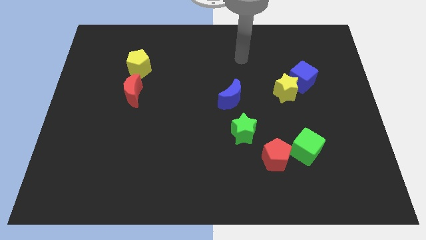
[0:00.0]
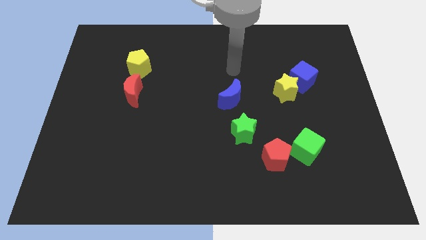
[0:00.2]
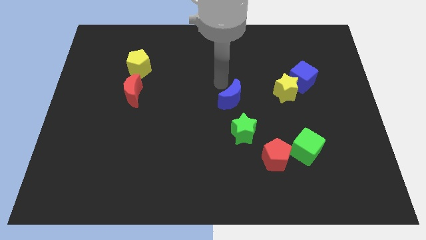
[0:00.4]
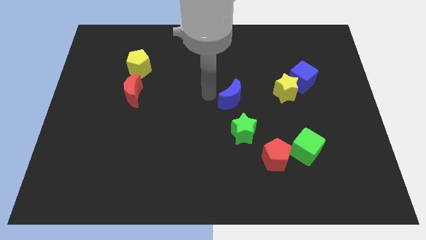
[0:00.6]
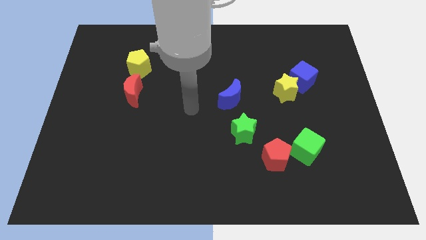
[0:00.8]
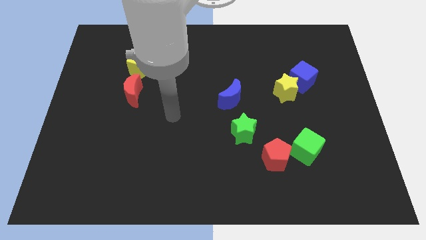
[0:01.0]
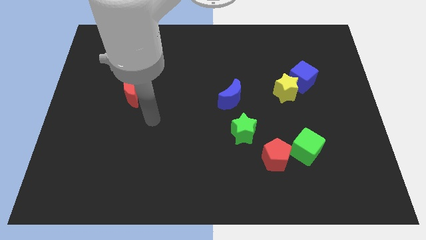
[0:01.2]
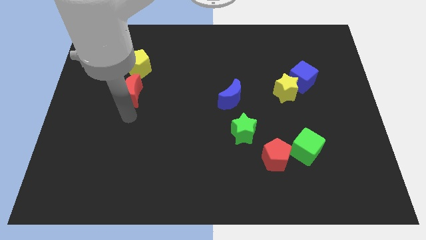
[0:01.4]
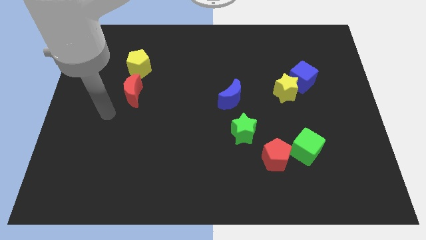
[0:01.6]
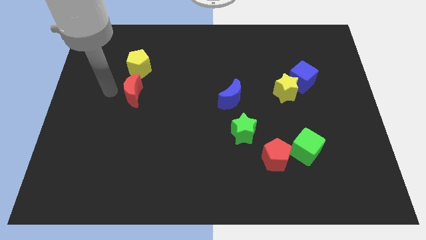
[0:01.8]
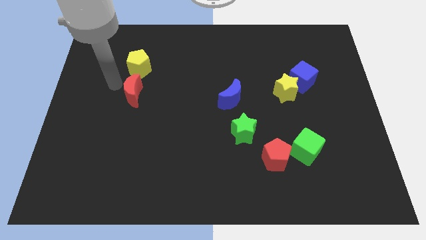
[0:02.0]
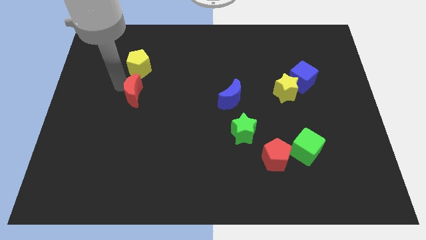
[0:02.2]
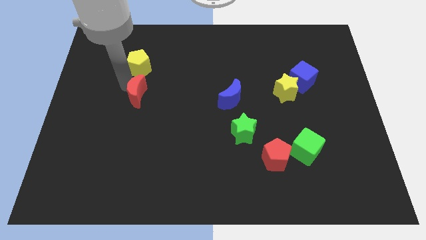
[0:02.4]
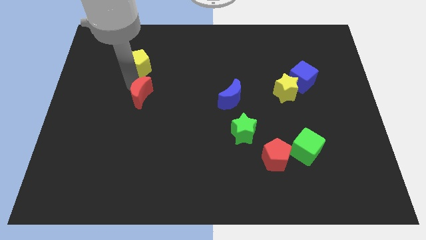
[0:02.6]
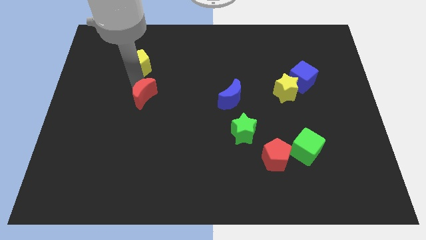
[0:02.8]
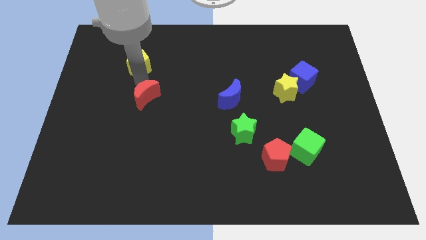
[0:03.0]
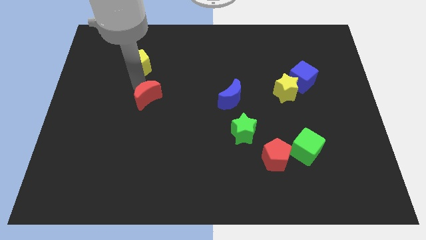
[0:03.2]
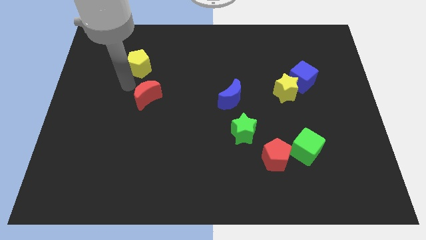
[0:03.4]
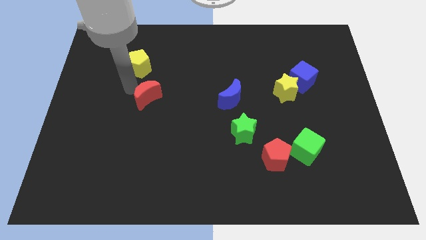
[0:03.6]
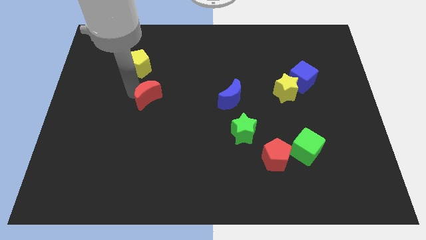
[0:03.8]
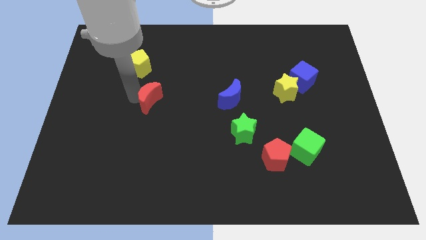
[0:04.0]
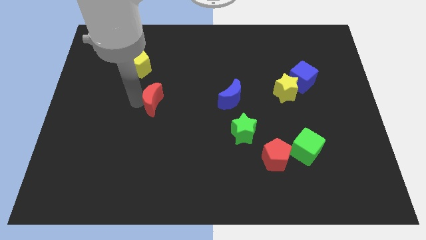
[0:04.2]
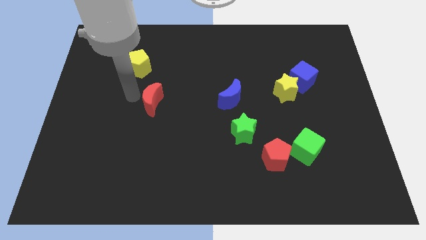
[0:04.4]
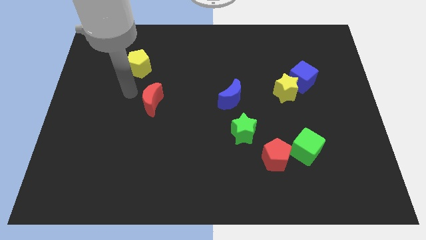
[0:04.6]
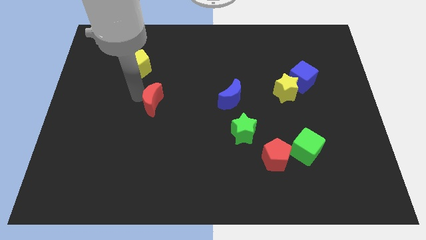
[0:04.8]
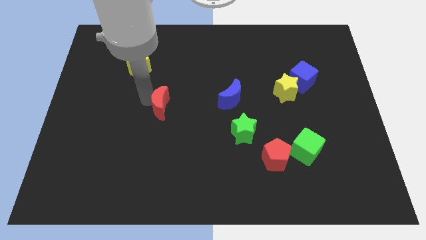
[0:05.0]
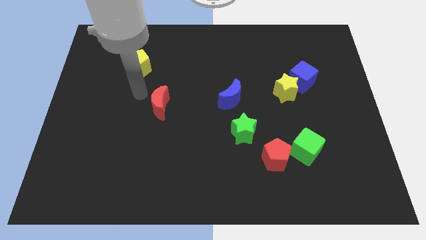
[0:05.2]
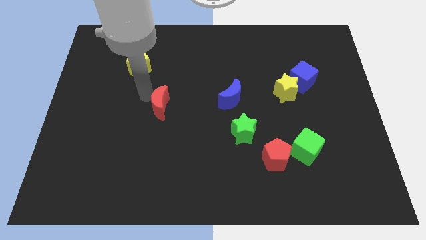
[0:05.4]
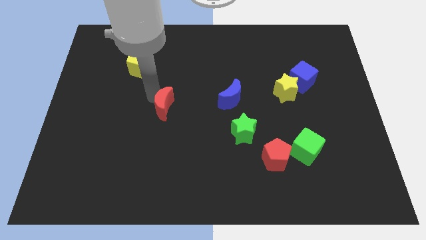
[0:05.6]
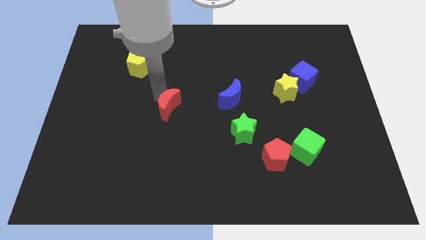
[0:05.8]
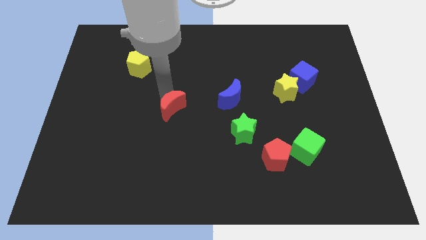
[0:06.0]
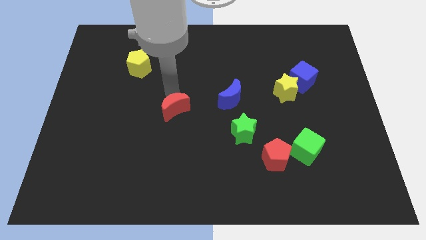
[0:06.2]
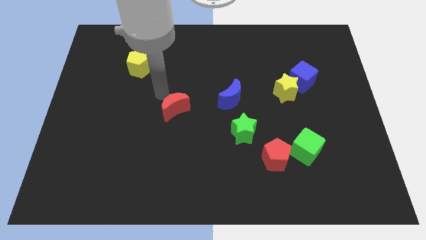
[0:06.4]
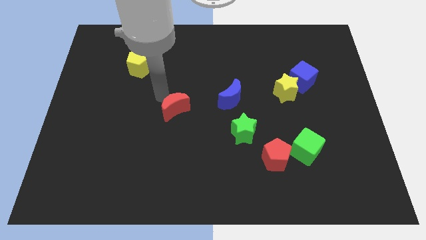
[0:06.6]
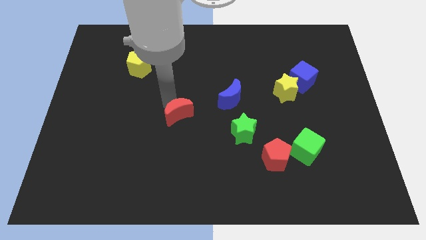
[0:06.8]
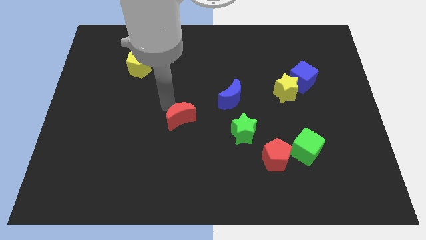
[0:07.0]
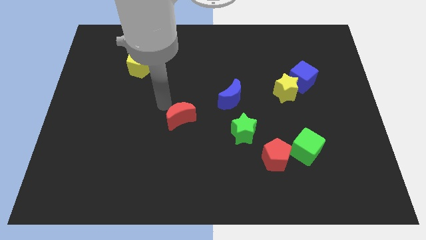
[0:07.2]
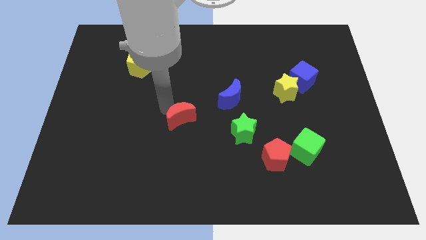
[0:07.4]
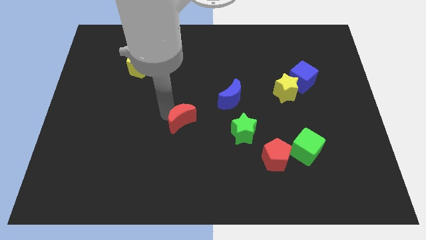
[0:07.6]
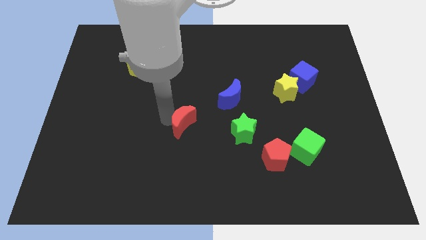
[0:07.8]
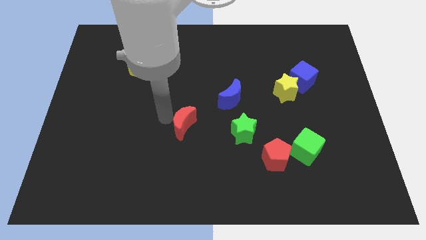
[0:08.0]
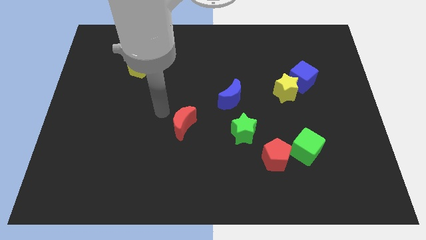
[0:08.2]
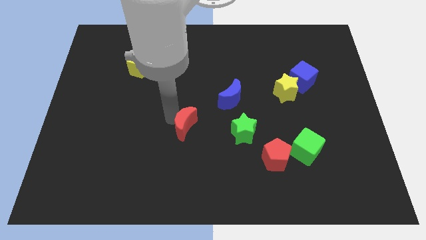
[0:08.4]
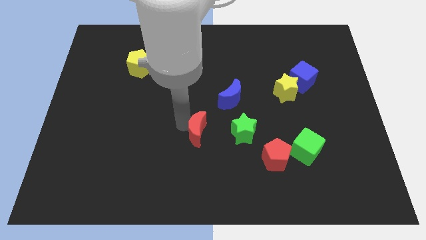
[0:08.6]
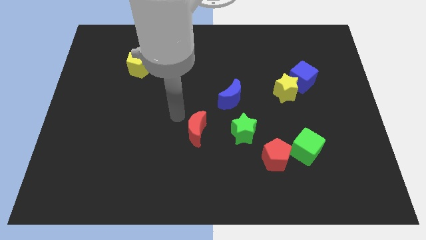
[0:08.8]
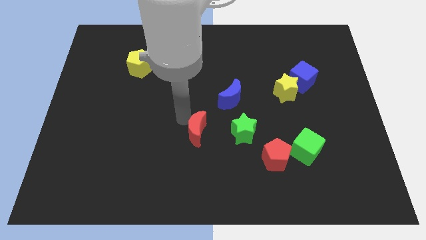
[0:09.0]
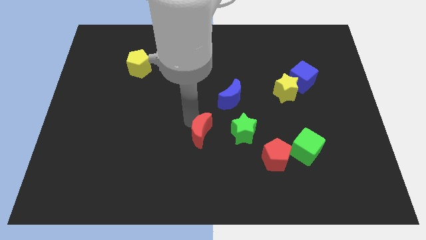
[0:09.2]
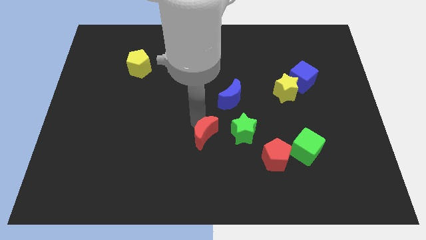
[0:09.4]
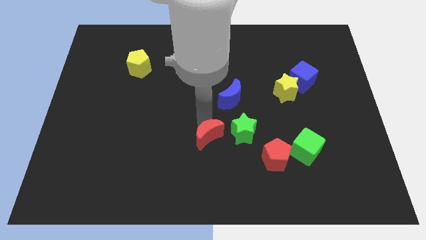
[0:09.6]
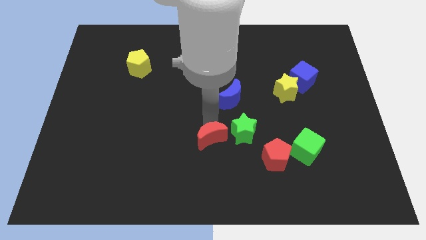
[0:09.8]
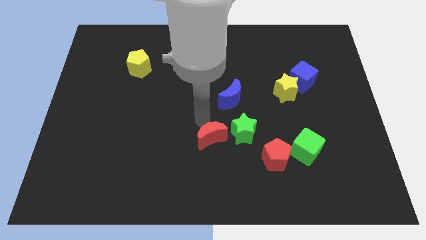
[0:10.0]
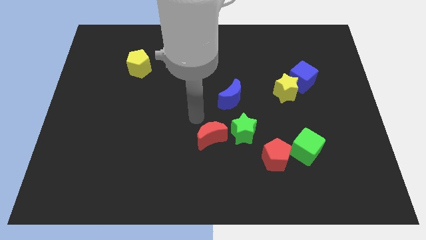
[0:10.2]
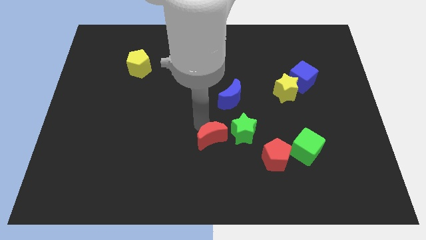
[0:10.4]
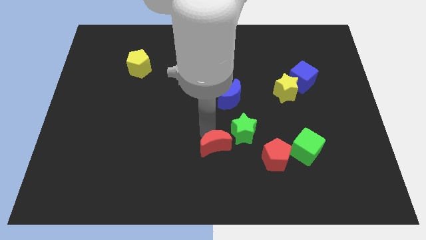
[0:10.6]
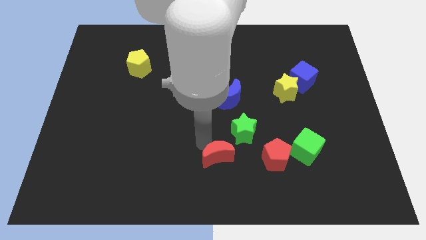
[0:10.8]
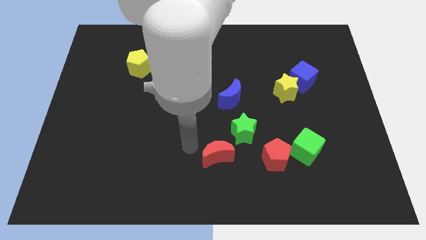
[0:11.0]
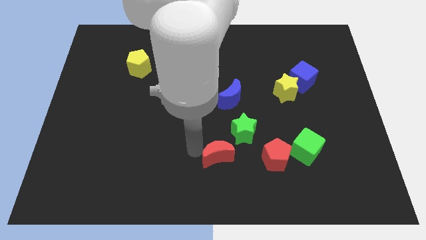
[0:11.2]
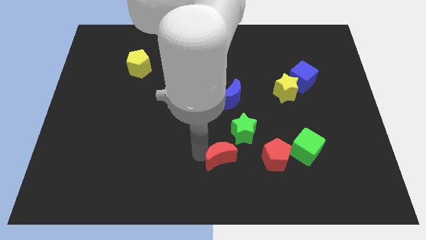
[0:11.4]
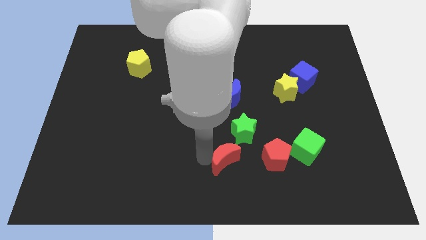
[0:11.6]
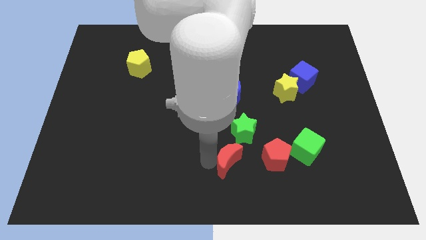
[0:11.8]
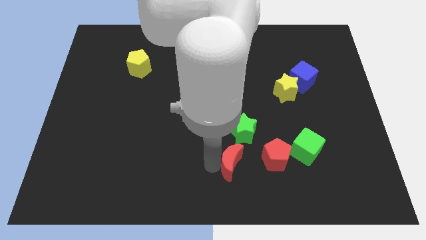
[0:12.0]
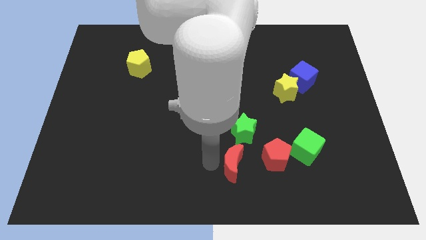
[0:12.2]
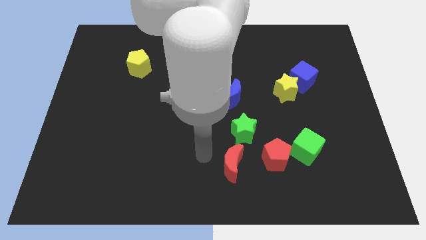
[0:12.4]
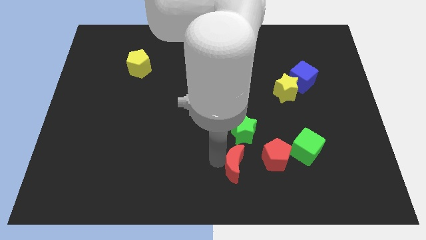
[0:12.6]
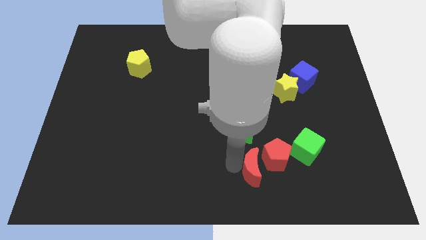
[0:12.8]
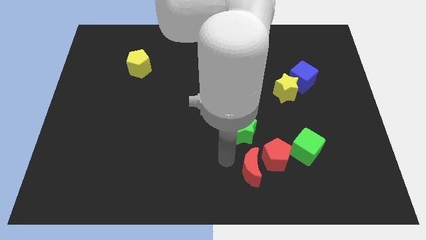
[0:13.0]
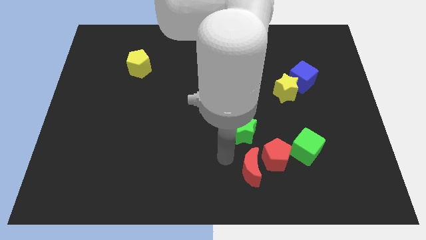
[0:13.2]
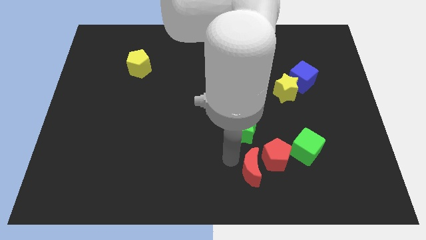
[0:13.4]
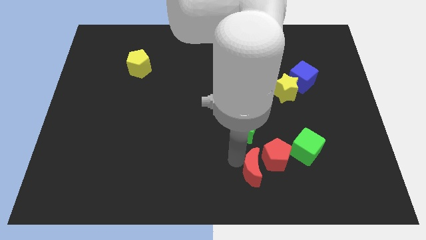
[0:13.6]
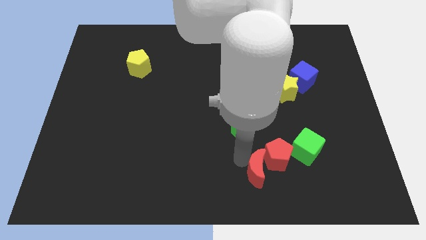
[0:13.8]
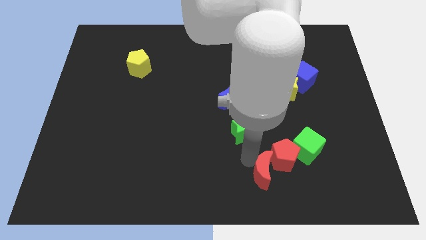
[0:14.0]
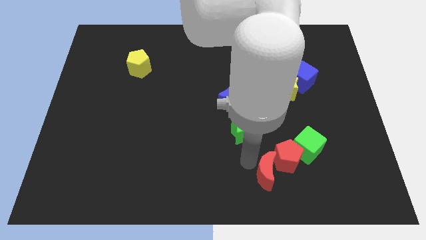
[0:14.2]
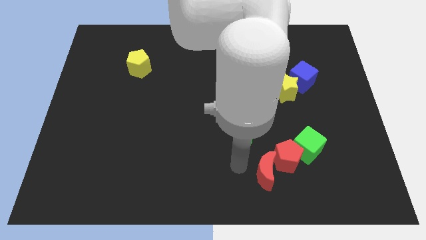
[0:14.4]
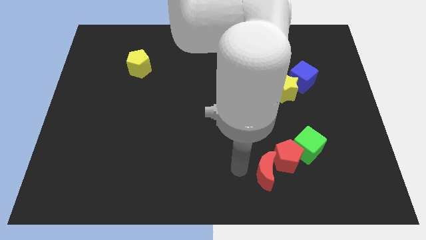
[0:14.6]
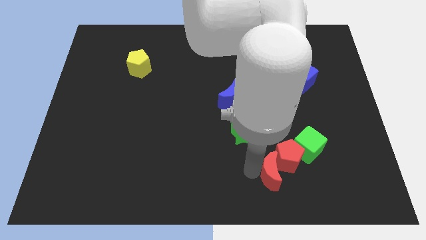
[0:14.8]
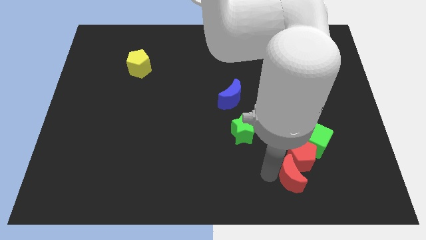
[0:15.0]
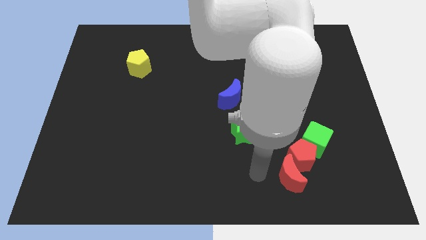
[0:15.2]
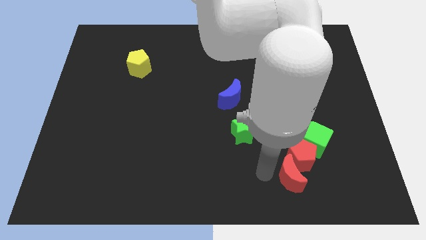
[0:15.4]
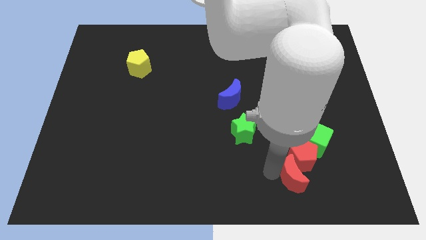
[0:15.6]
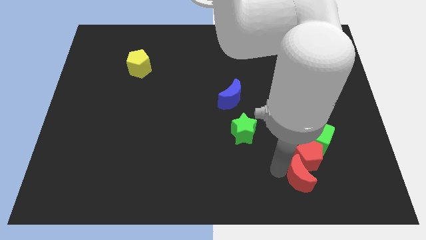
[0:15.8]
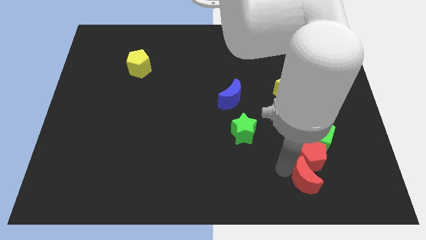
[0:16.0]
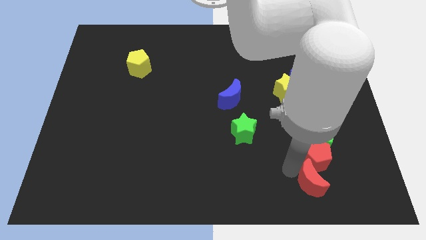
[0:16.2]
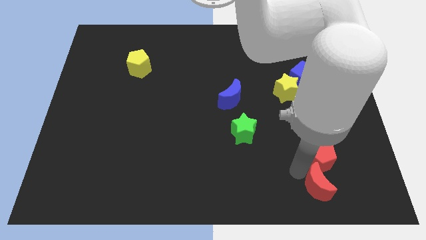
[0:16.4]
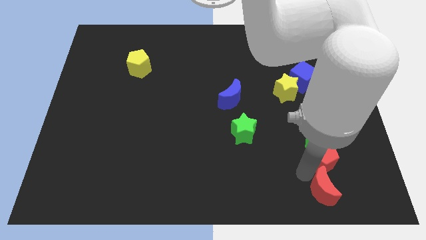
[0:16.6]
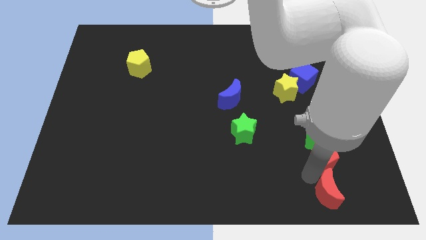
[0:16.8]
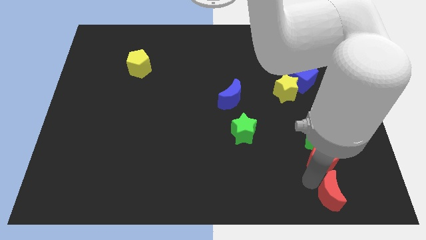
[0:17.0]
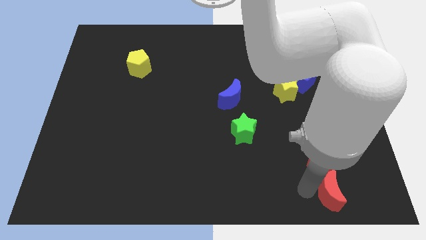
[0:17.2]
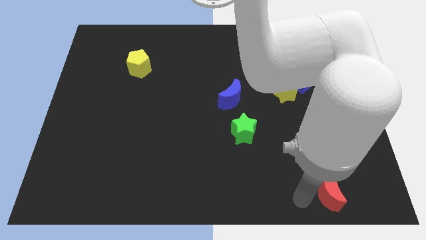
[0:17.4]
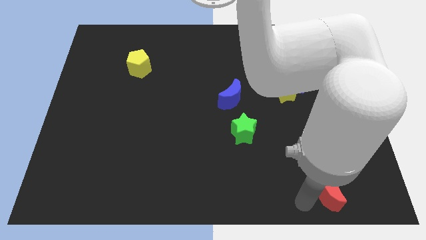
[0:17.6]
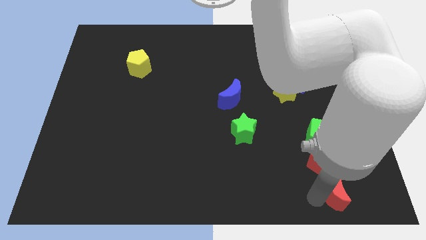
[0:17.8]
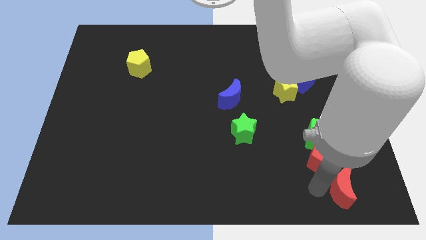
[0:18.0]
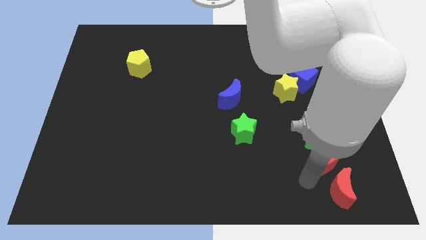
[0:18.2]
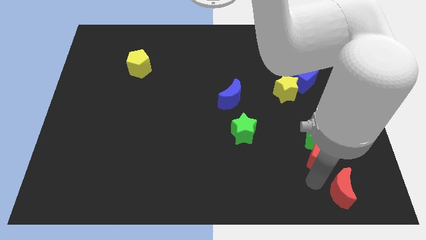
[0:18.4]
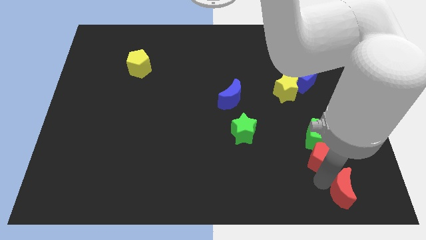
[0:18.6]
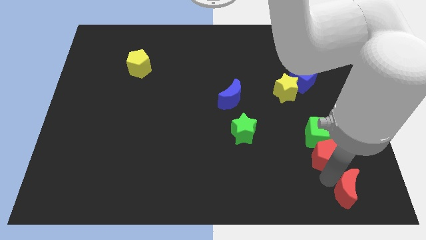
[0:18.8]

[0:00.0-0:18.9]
put the red moon to the lower right corner
